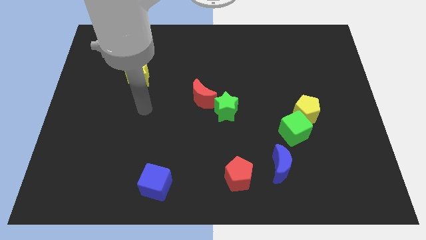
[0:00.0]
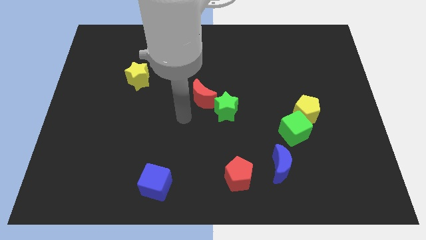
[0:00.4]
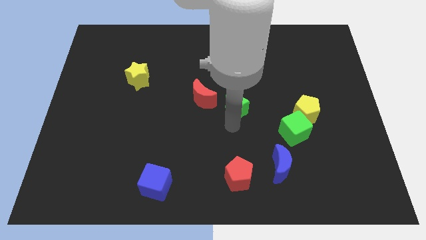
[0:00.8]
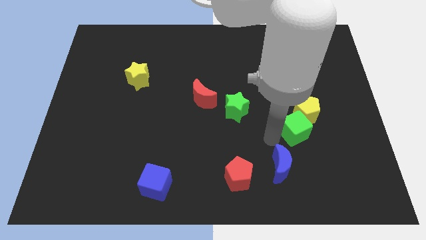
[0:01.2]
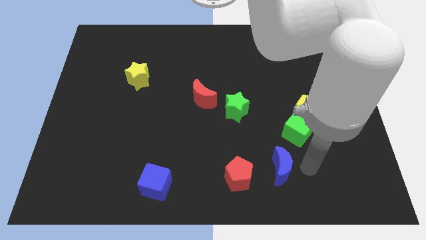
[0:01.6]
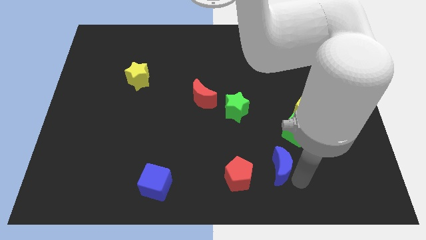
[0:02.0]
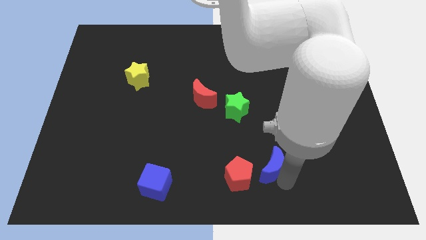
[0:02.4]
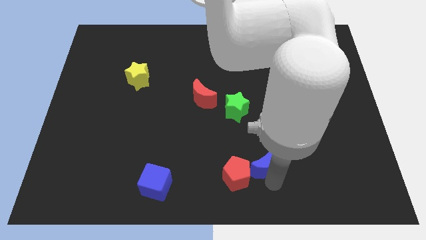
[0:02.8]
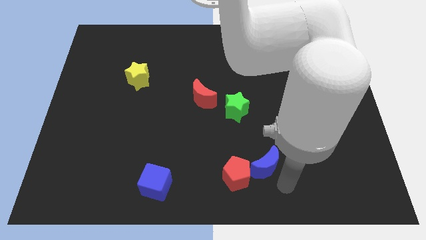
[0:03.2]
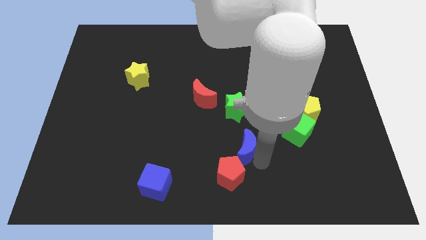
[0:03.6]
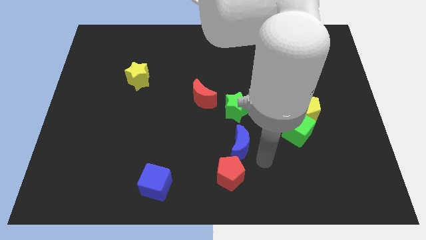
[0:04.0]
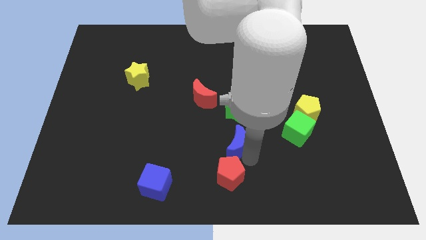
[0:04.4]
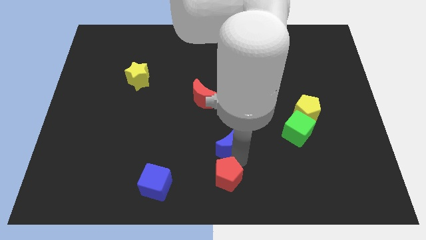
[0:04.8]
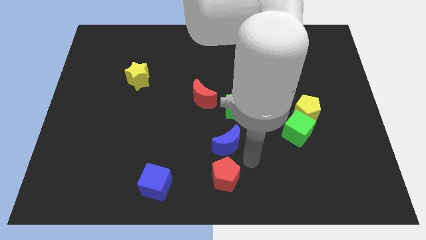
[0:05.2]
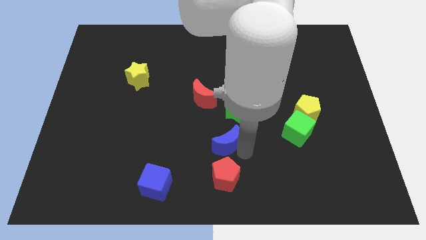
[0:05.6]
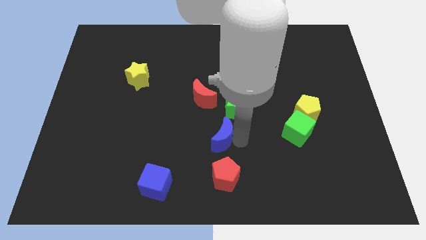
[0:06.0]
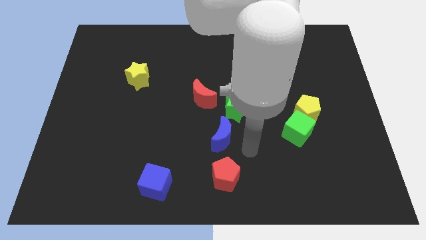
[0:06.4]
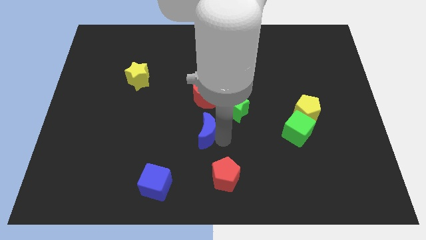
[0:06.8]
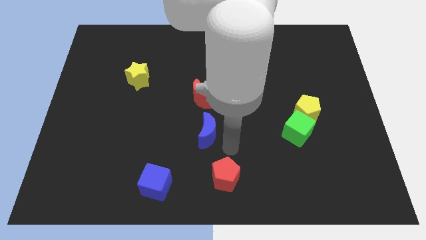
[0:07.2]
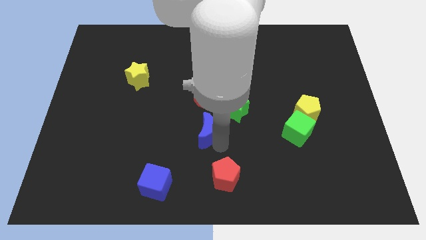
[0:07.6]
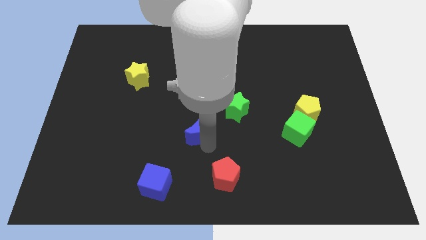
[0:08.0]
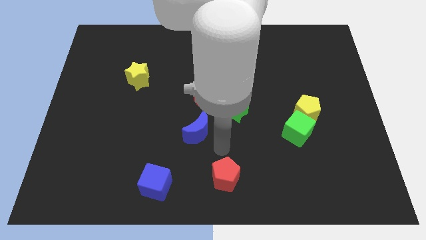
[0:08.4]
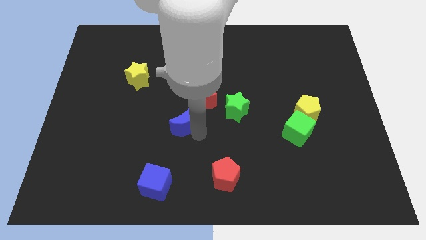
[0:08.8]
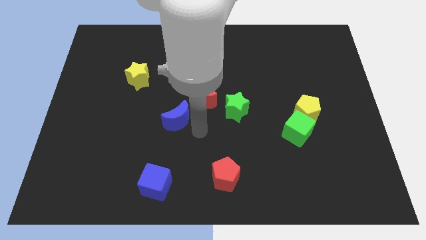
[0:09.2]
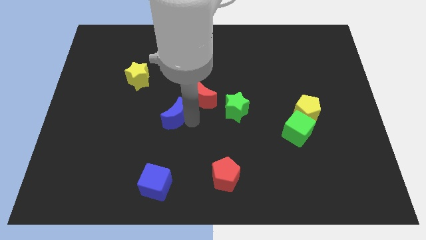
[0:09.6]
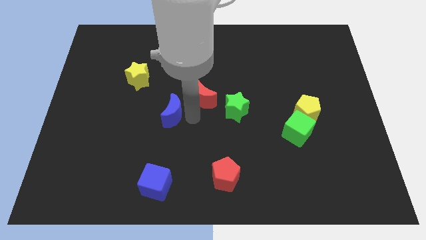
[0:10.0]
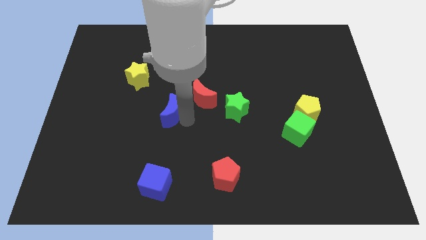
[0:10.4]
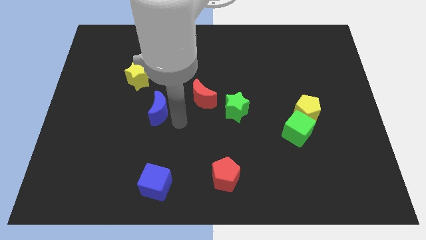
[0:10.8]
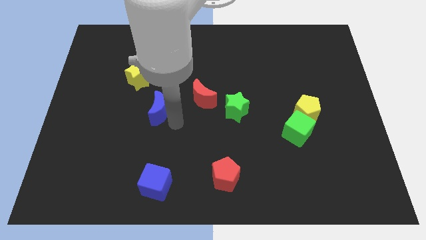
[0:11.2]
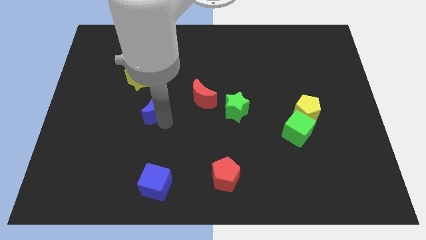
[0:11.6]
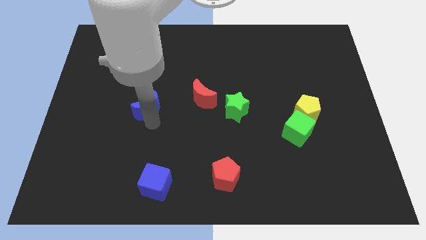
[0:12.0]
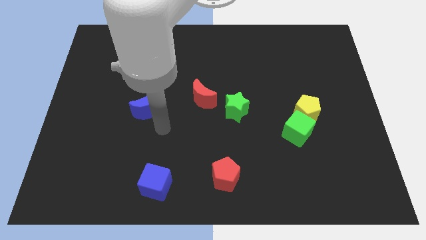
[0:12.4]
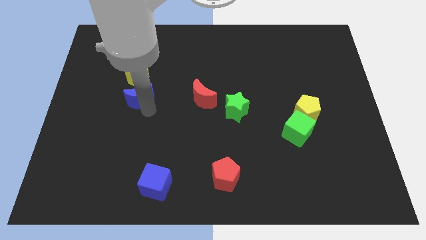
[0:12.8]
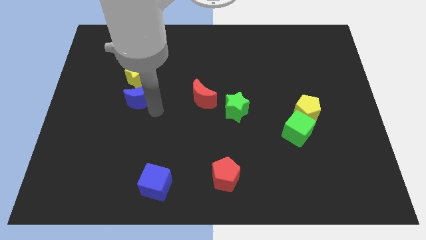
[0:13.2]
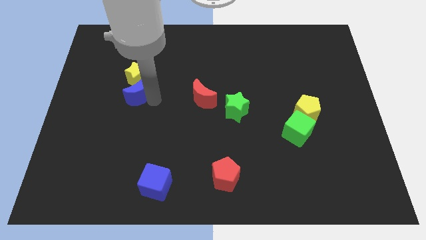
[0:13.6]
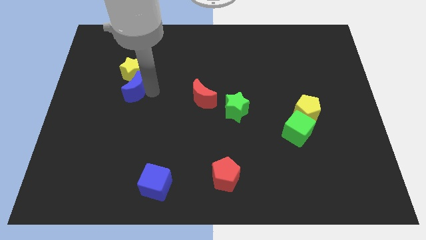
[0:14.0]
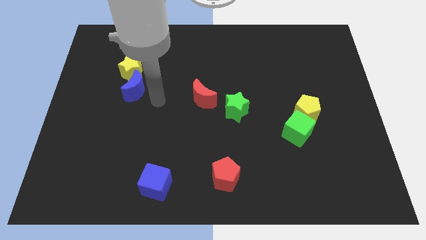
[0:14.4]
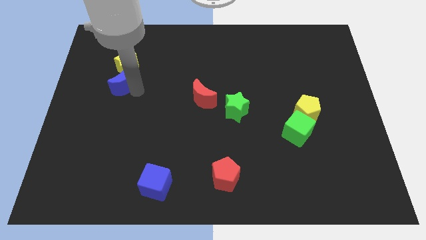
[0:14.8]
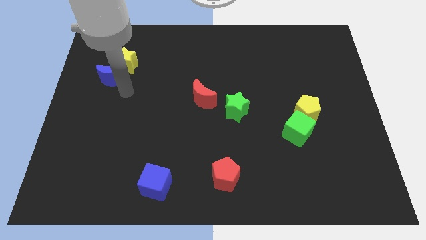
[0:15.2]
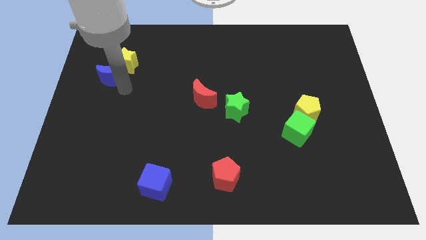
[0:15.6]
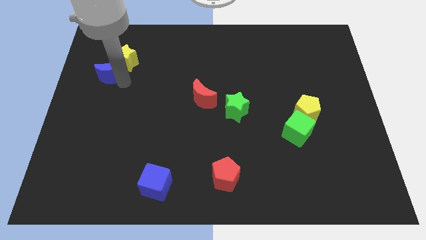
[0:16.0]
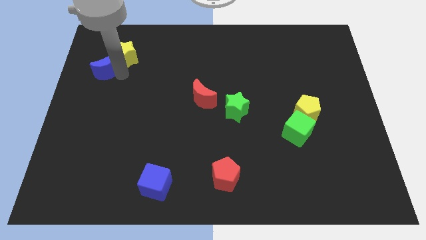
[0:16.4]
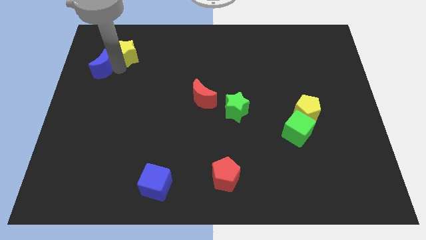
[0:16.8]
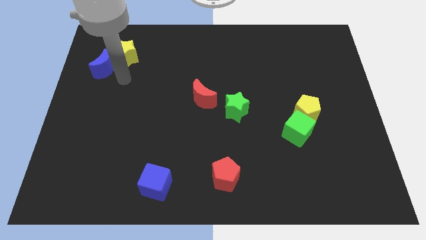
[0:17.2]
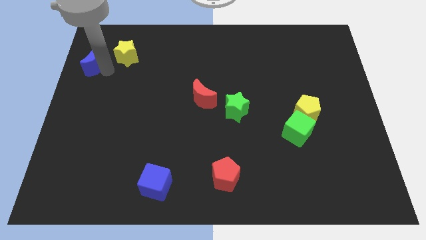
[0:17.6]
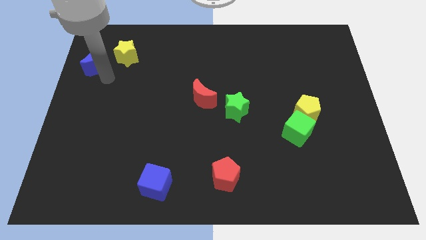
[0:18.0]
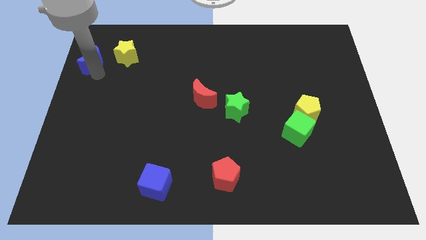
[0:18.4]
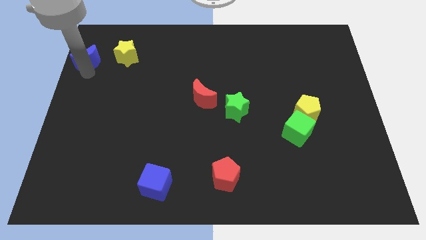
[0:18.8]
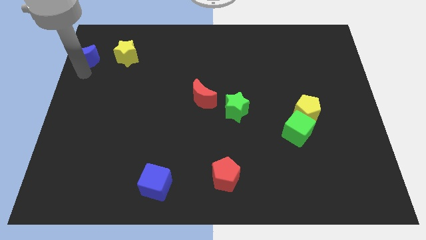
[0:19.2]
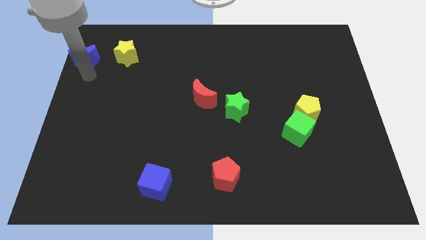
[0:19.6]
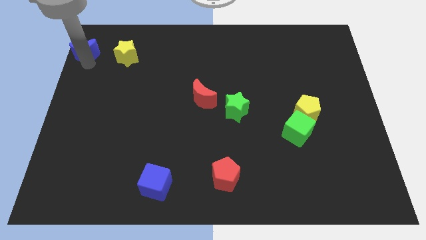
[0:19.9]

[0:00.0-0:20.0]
move the blue moon to the top left corner

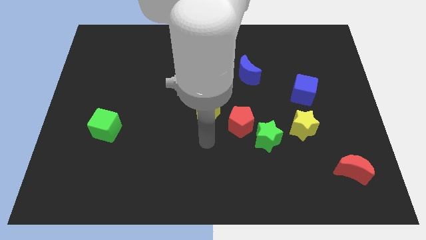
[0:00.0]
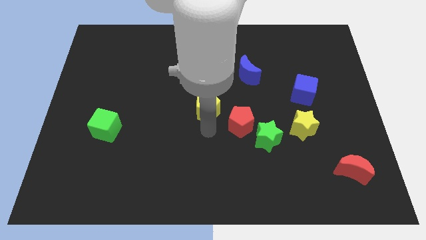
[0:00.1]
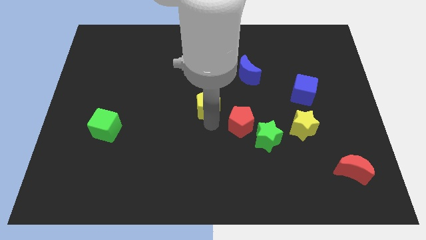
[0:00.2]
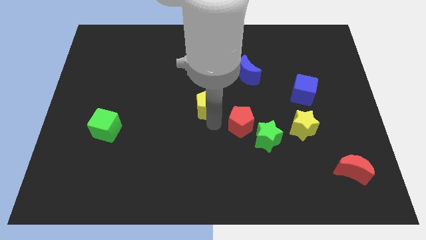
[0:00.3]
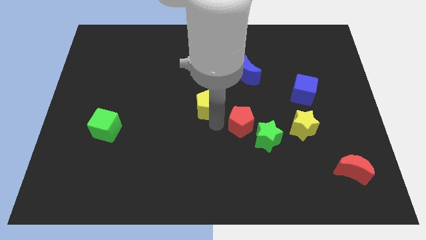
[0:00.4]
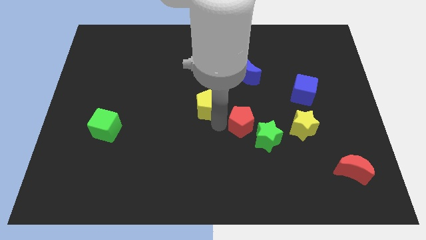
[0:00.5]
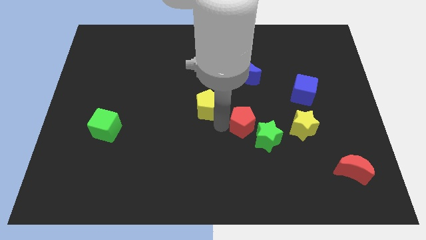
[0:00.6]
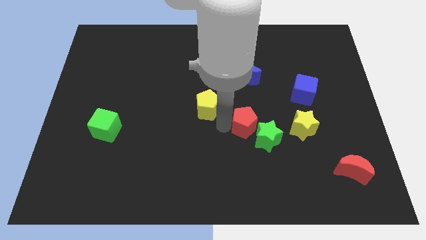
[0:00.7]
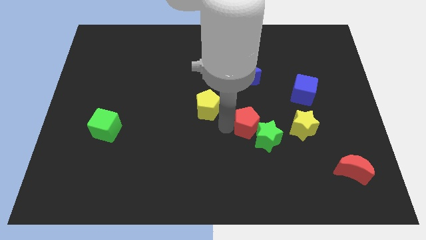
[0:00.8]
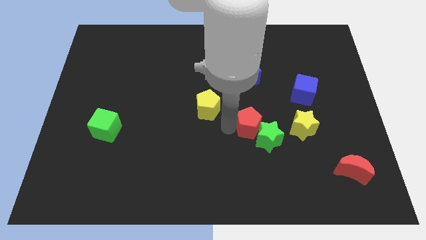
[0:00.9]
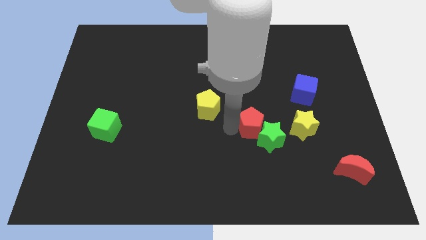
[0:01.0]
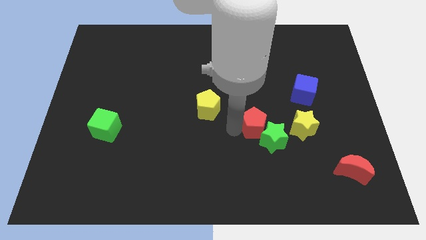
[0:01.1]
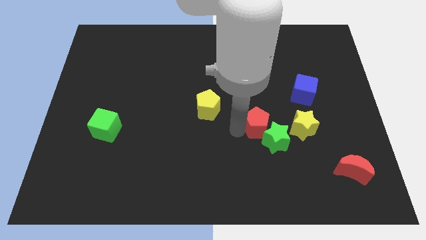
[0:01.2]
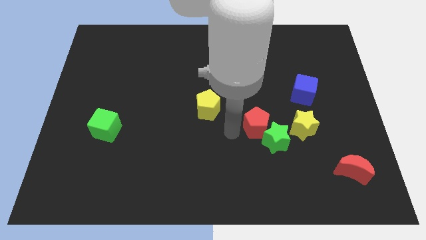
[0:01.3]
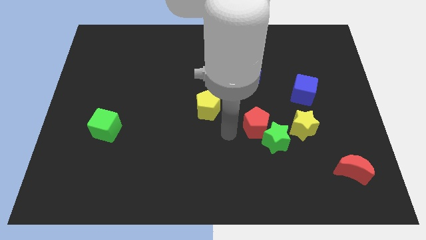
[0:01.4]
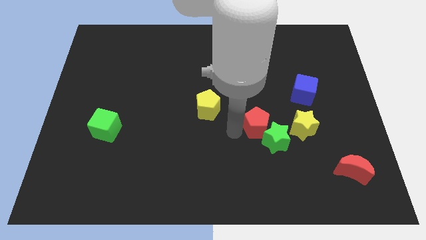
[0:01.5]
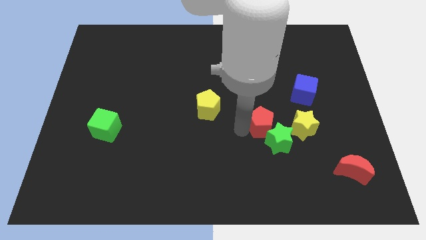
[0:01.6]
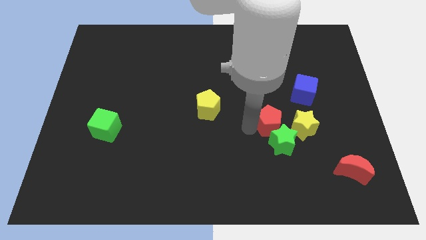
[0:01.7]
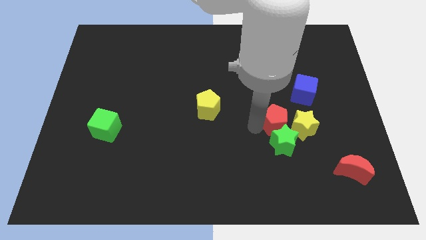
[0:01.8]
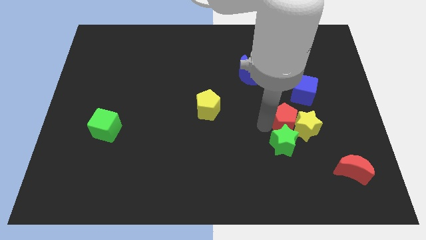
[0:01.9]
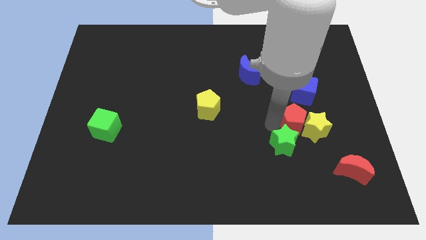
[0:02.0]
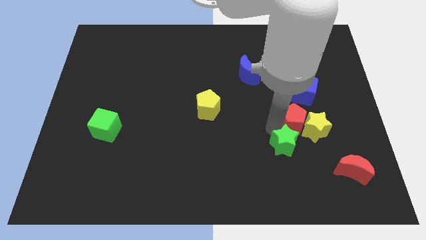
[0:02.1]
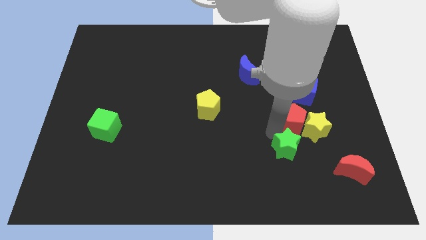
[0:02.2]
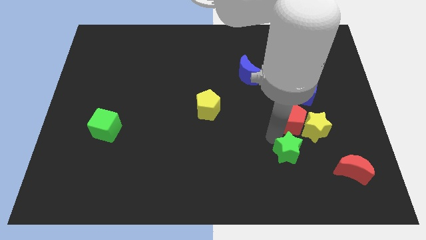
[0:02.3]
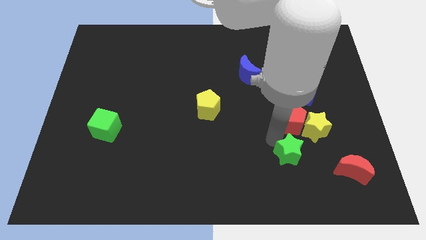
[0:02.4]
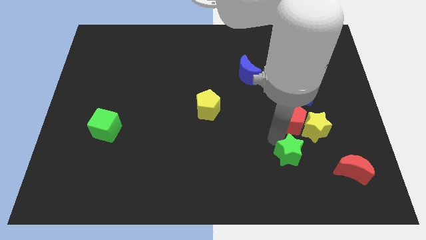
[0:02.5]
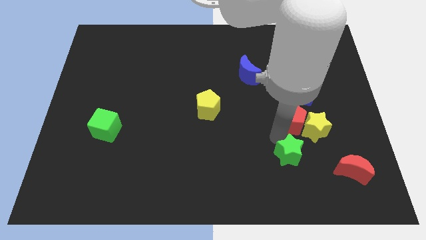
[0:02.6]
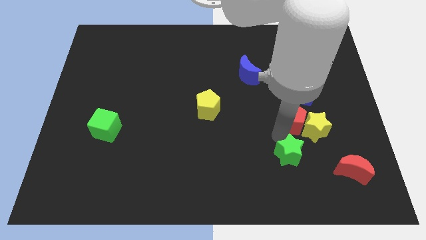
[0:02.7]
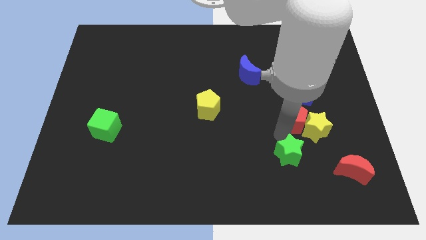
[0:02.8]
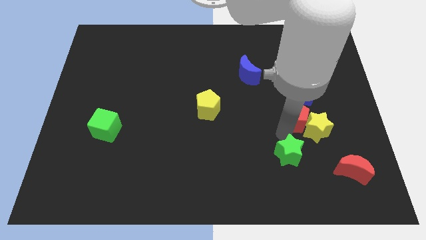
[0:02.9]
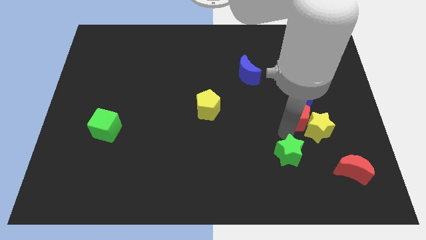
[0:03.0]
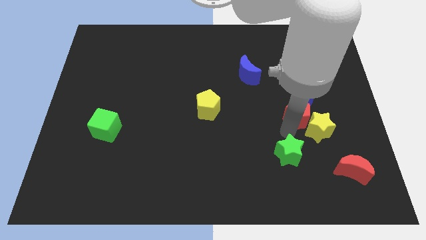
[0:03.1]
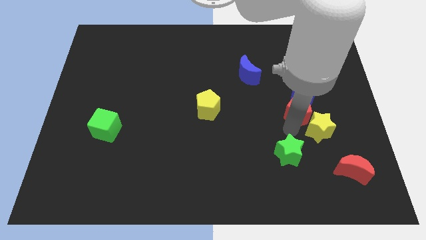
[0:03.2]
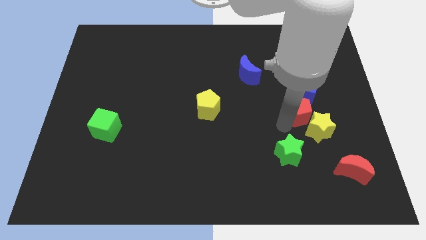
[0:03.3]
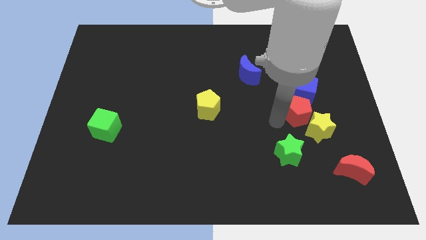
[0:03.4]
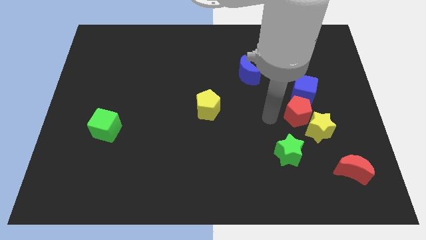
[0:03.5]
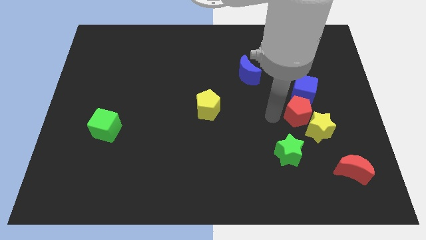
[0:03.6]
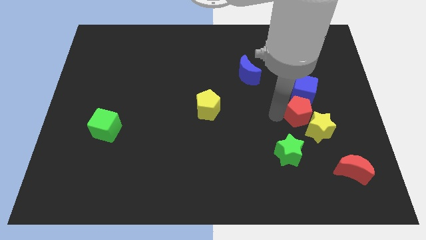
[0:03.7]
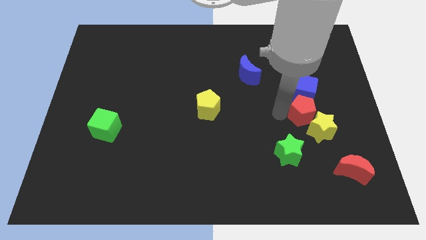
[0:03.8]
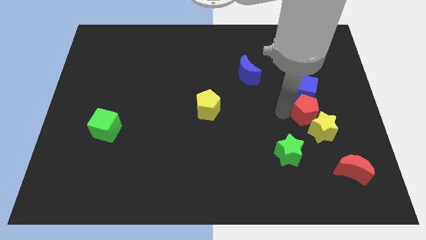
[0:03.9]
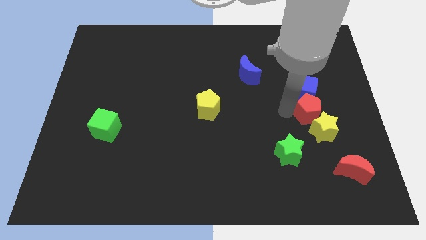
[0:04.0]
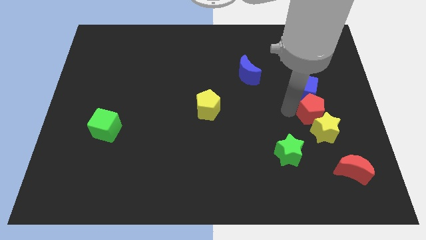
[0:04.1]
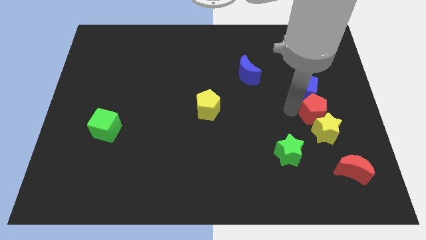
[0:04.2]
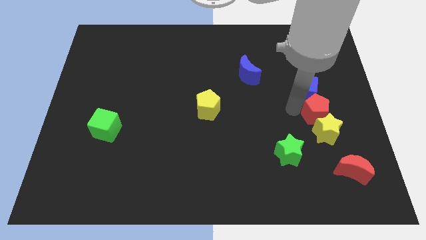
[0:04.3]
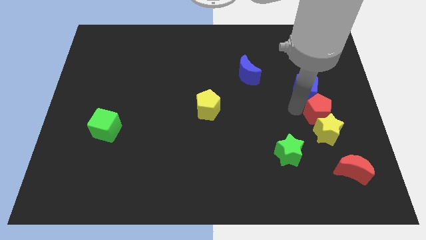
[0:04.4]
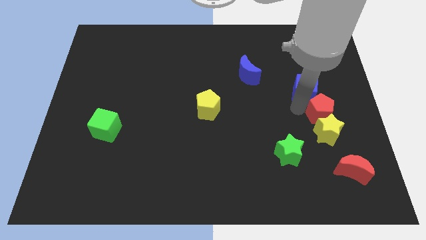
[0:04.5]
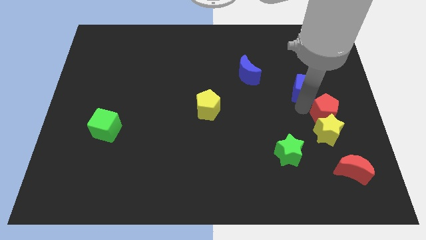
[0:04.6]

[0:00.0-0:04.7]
move the red pentagon to the right side
